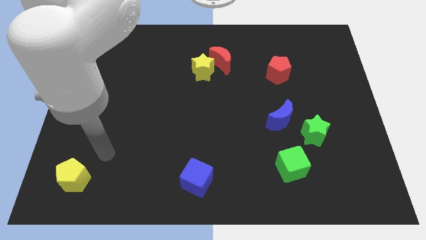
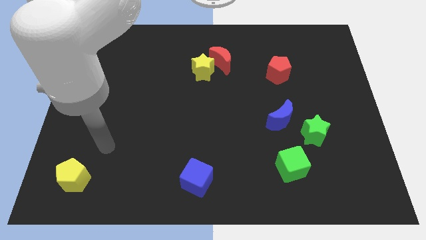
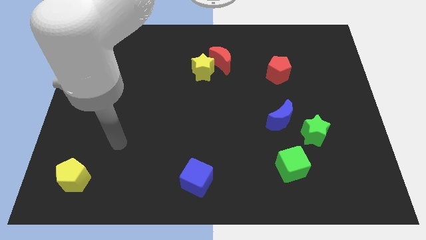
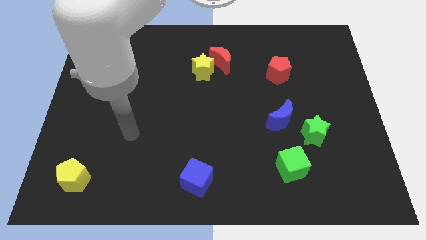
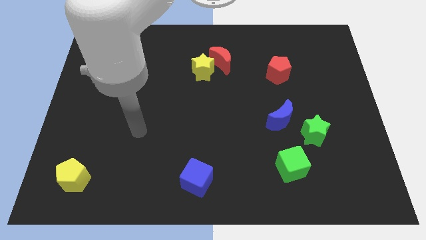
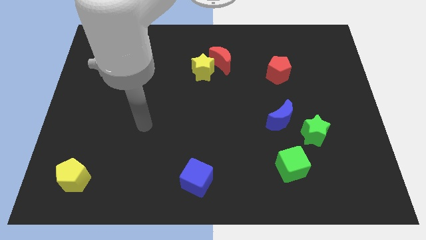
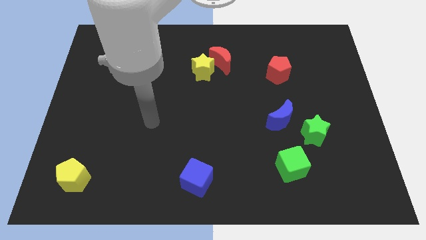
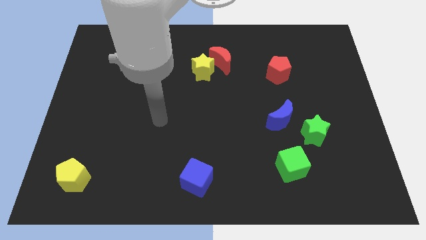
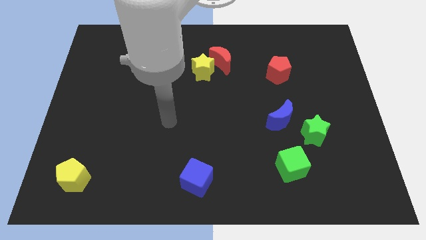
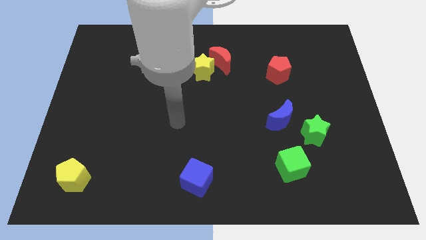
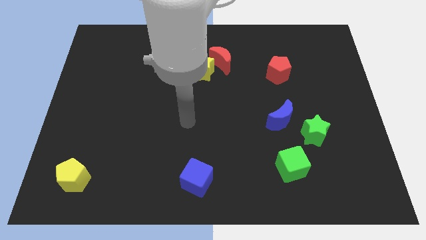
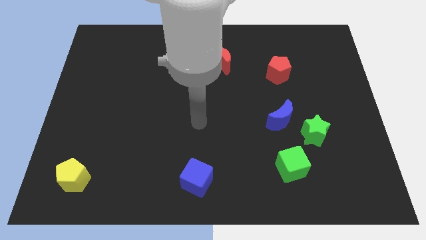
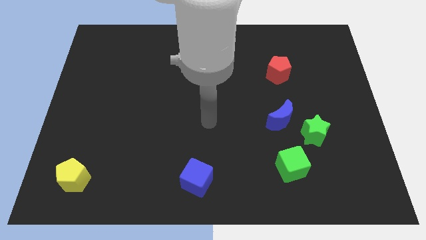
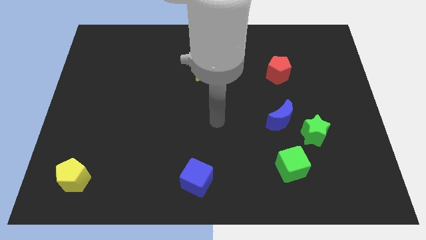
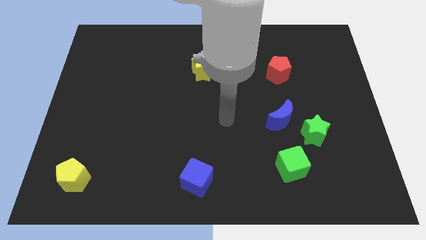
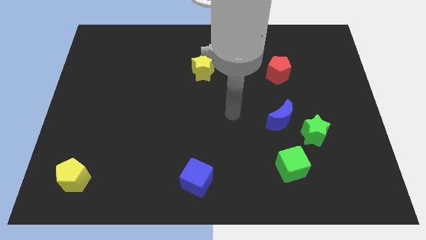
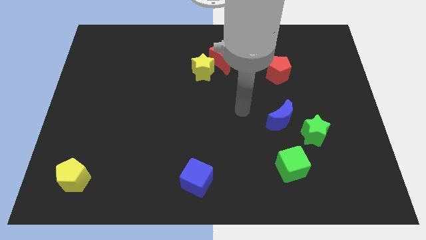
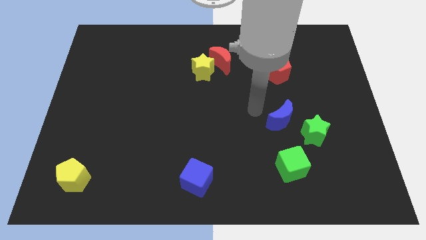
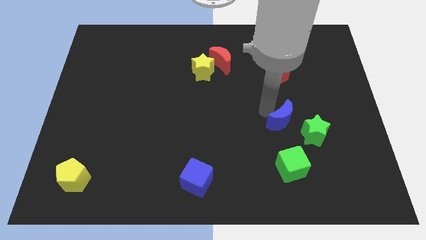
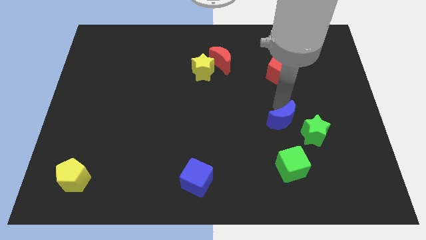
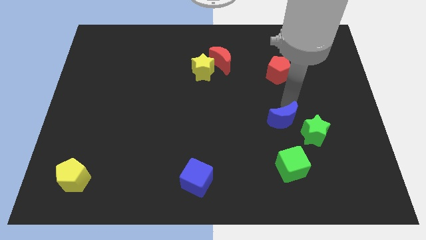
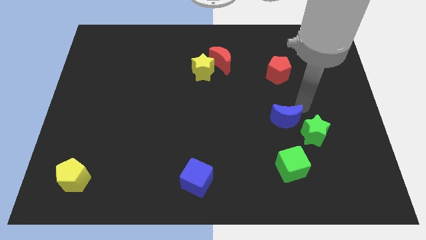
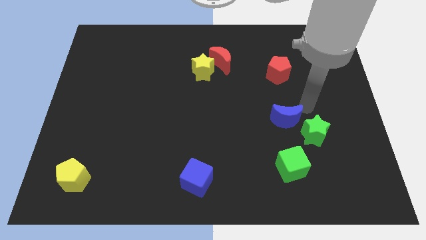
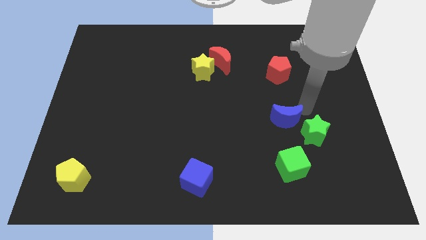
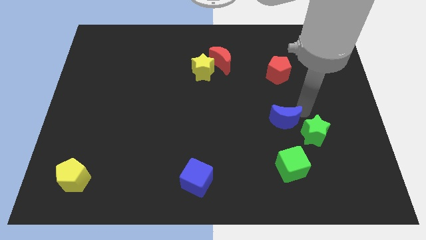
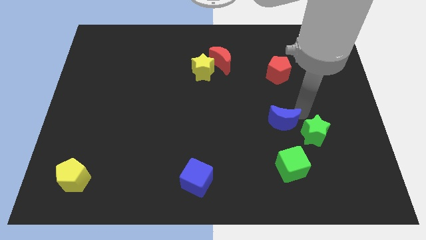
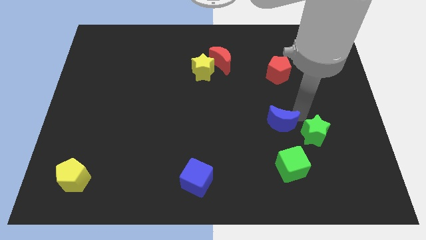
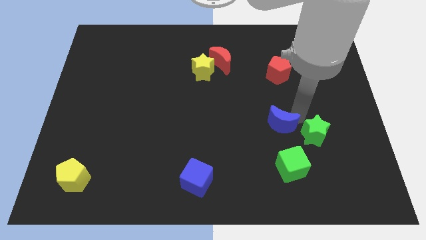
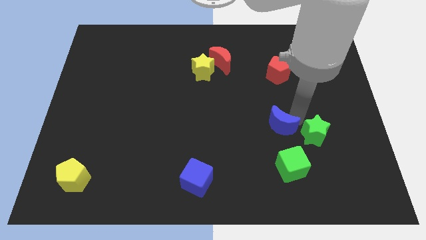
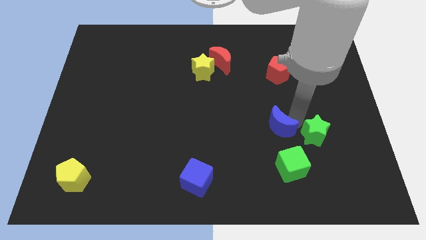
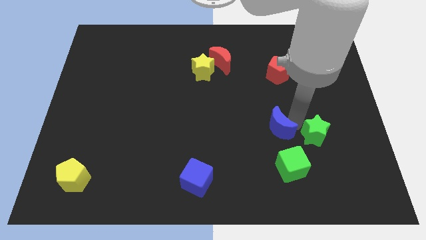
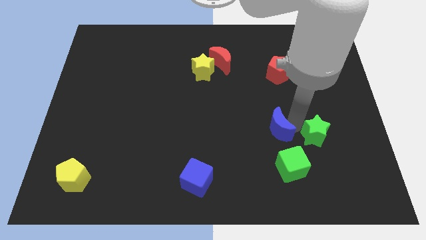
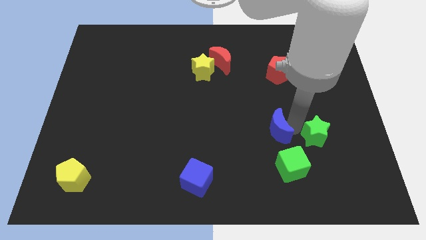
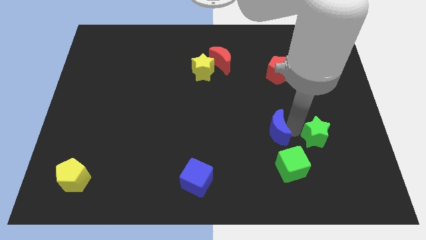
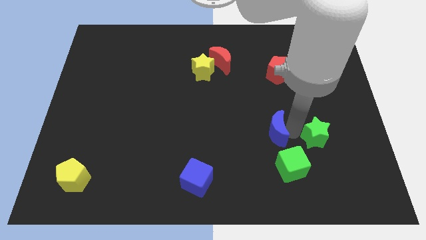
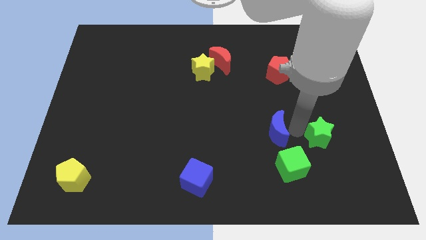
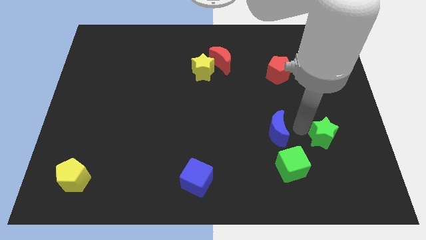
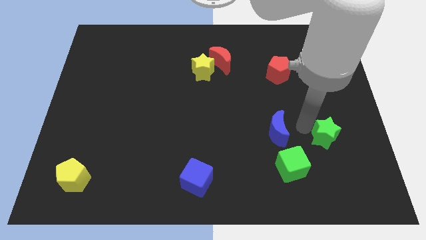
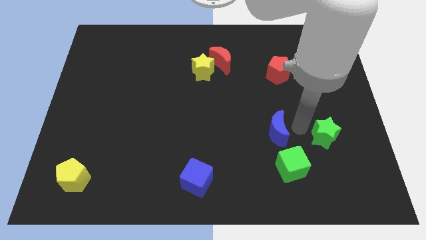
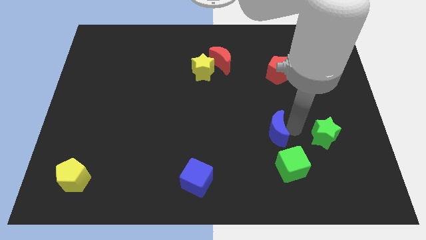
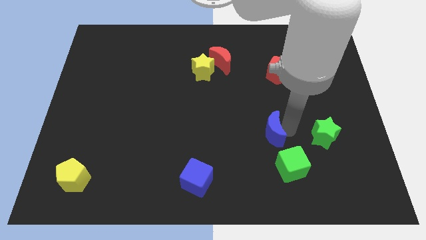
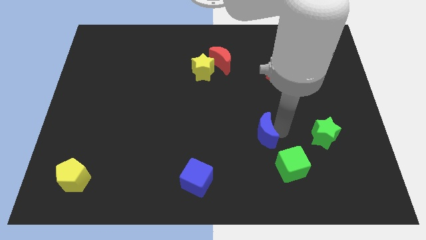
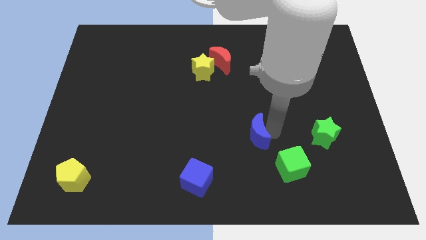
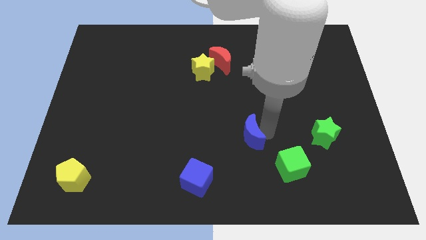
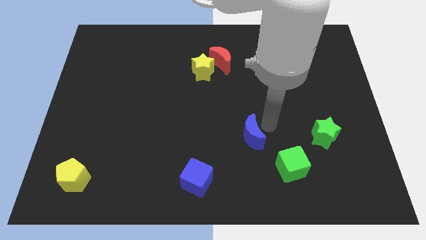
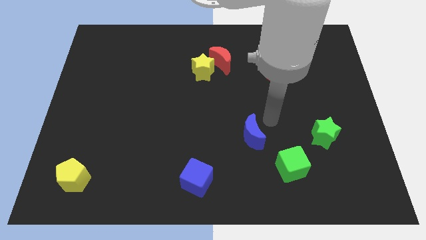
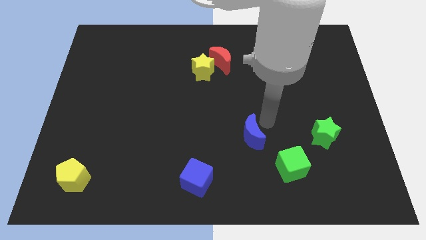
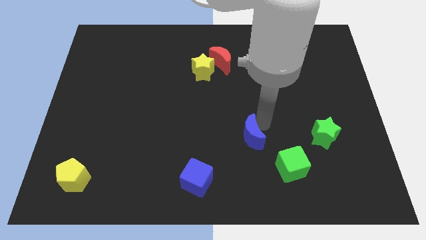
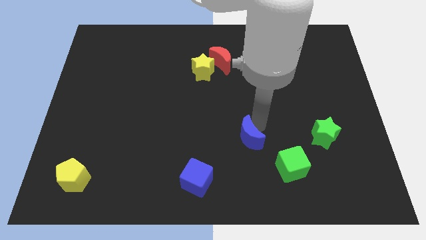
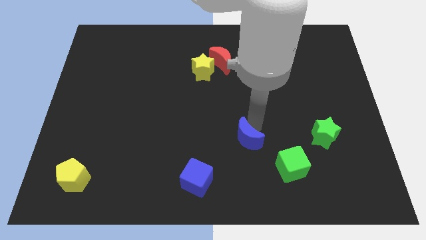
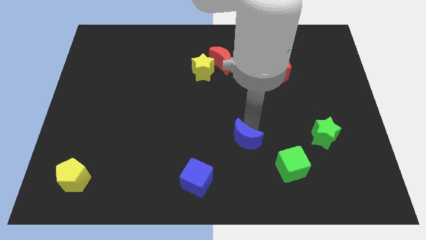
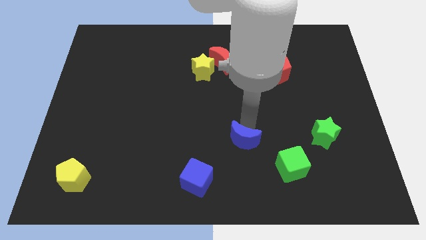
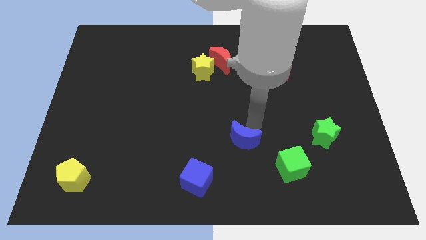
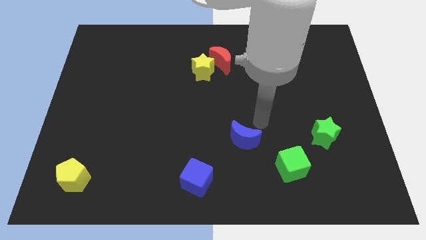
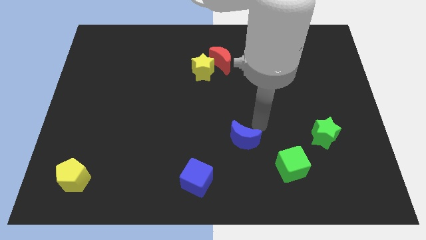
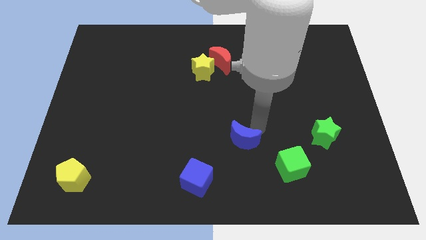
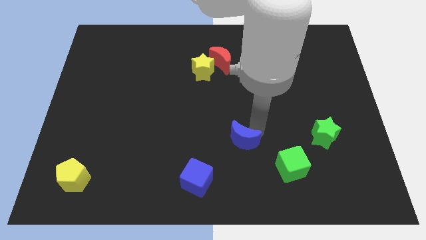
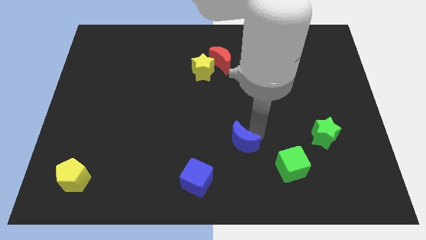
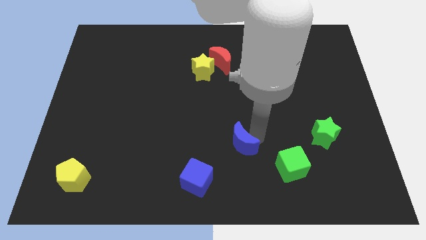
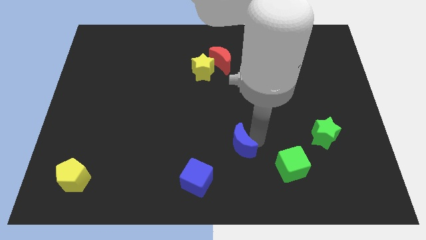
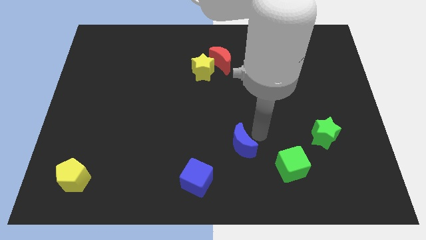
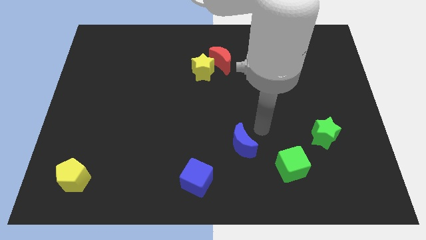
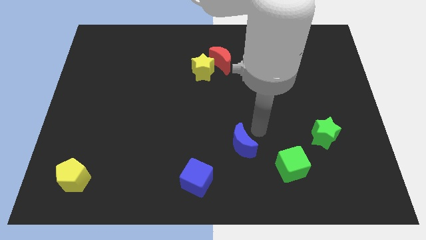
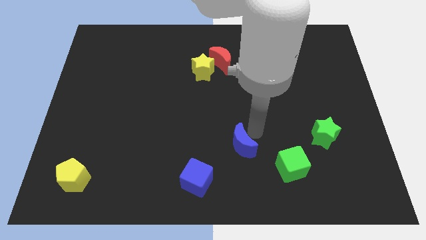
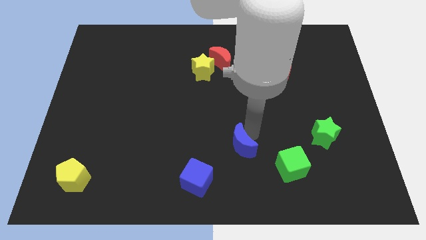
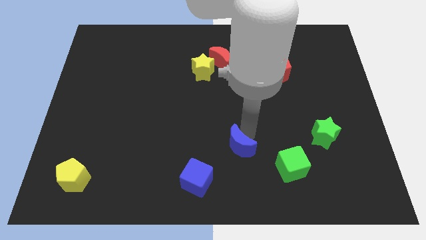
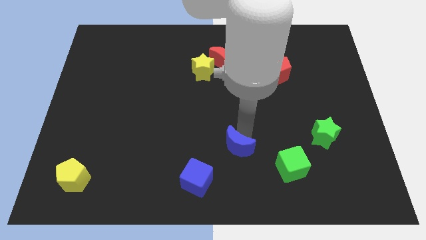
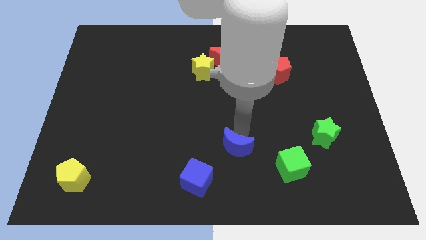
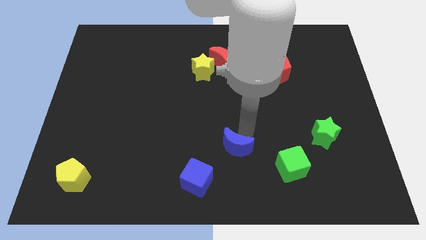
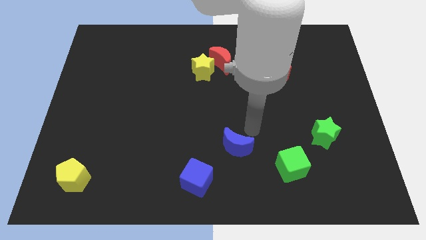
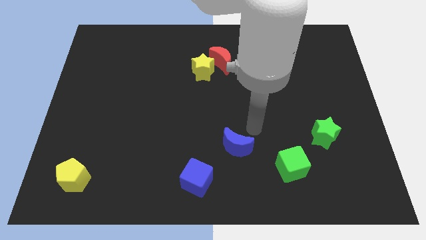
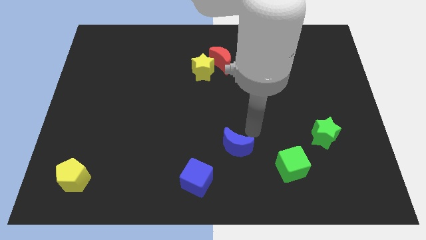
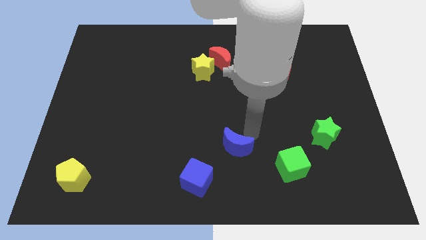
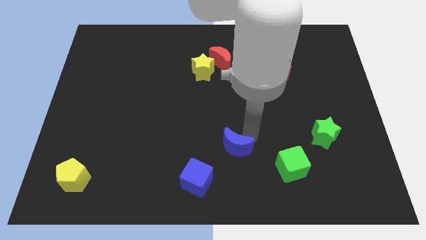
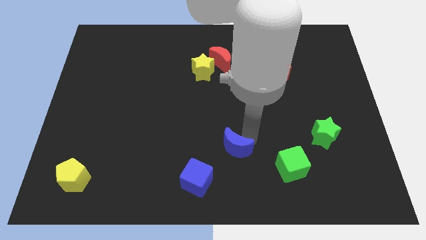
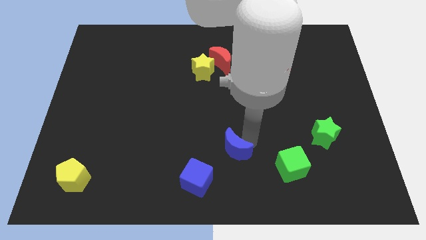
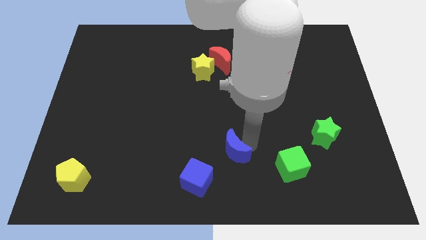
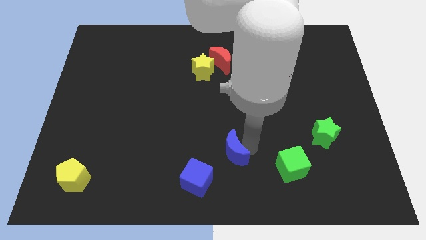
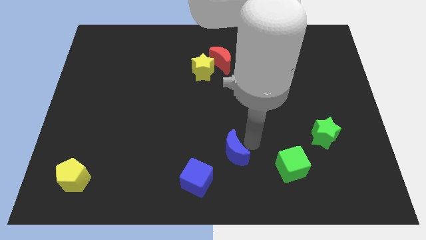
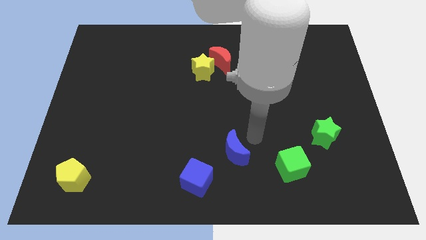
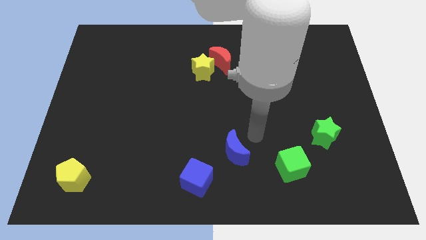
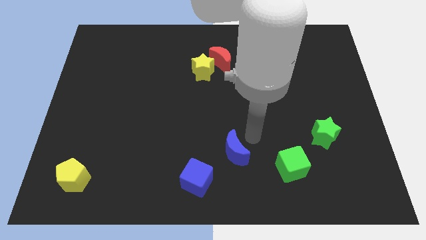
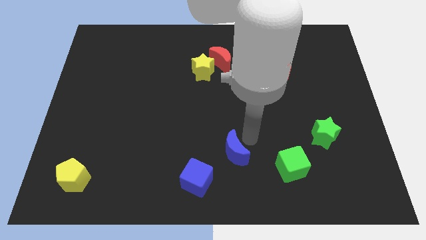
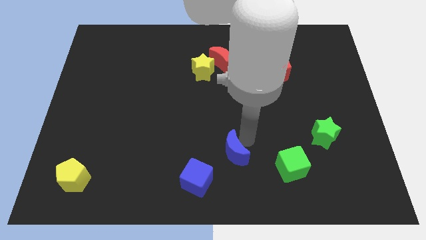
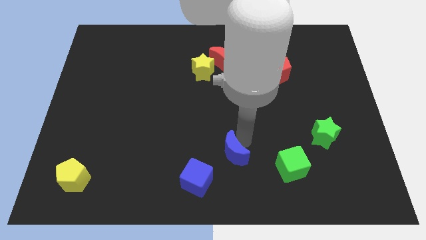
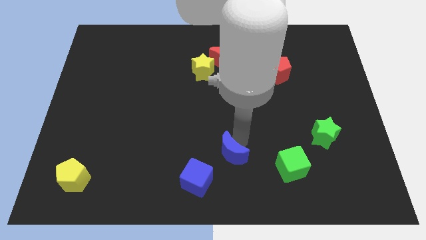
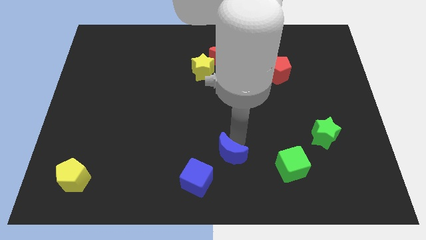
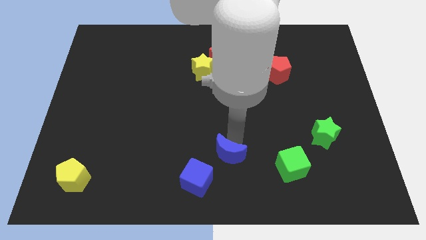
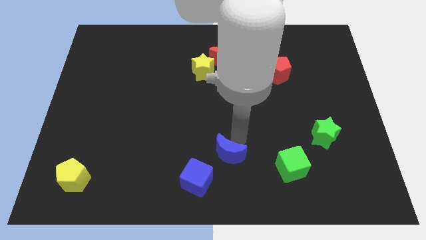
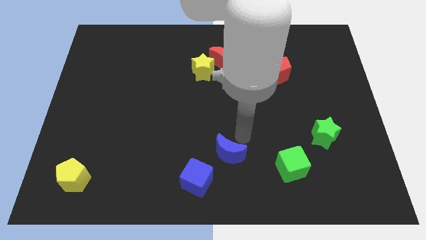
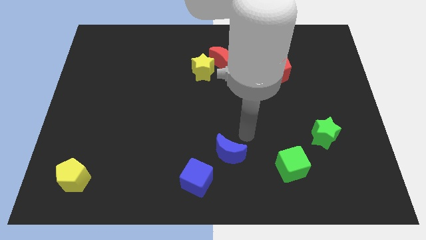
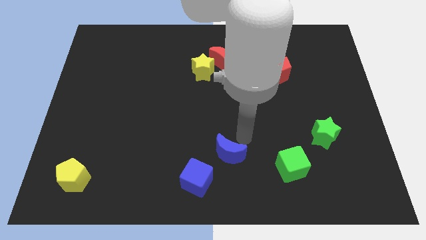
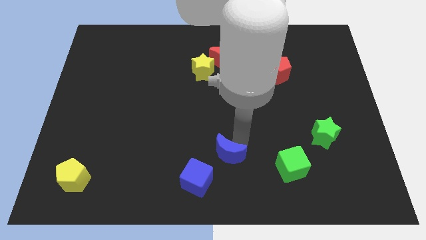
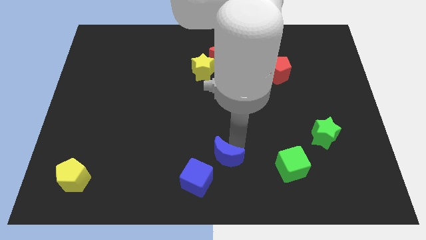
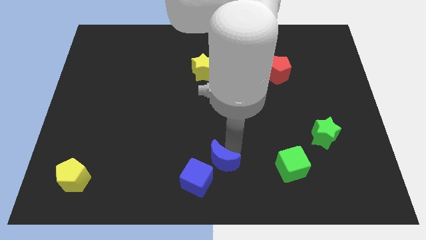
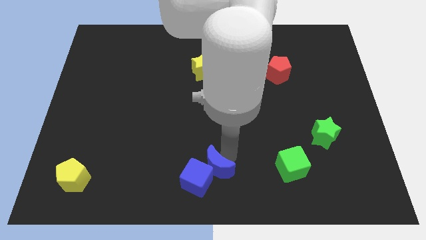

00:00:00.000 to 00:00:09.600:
push the blue moon close to the blue cube
